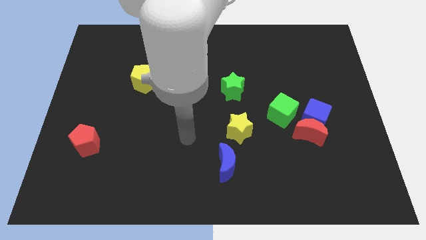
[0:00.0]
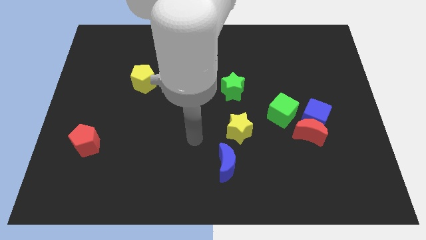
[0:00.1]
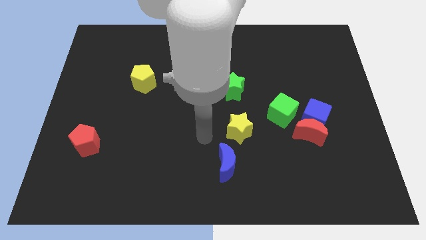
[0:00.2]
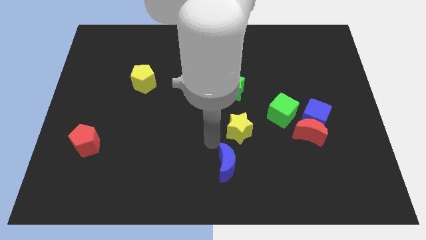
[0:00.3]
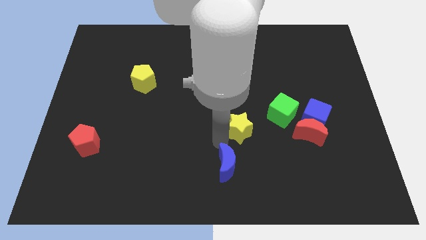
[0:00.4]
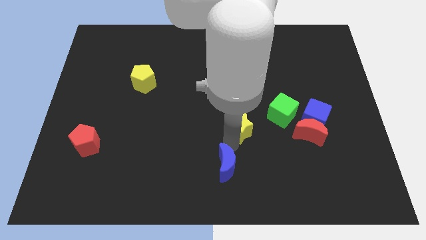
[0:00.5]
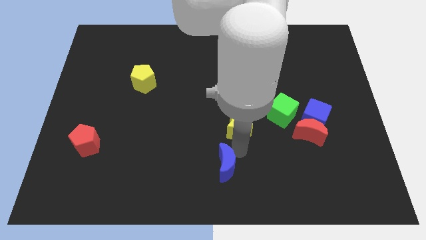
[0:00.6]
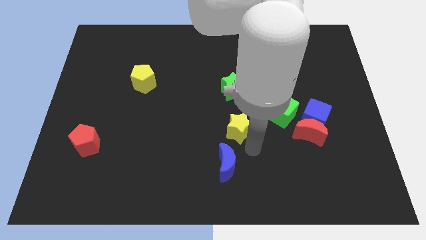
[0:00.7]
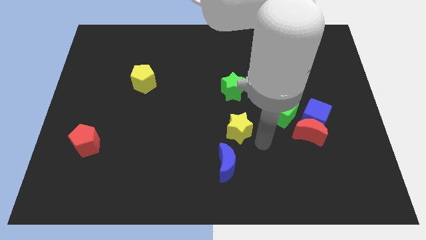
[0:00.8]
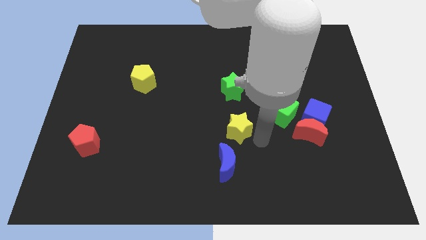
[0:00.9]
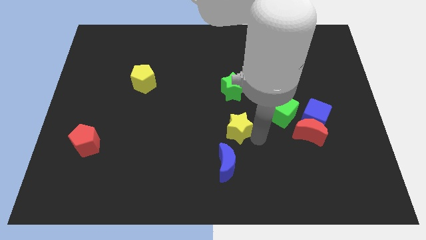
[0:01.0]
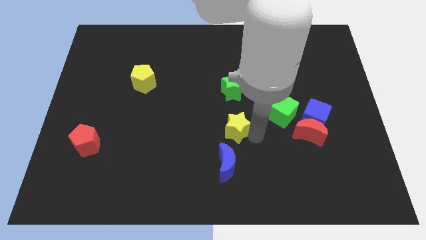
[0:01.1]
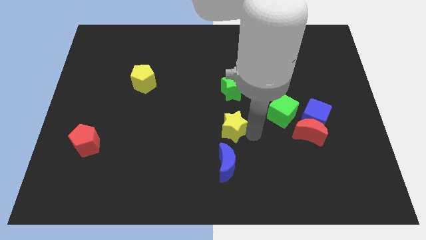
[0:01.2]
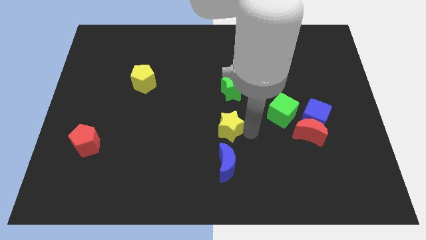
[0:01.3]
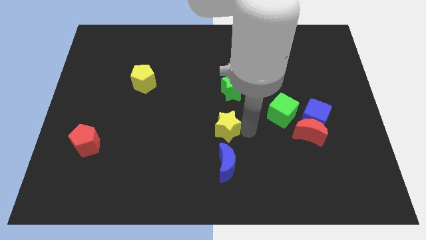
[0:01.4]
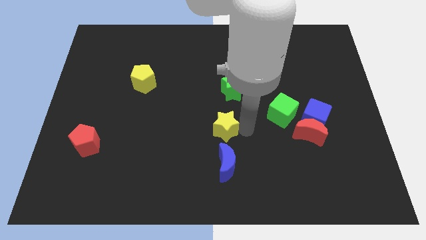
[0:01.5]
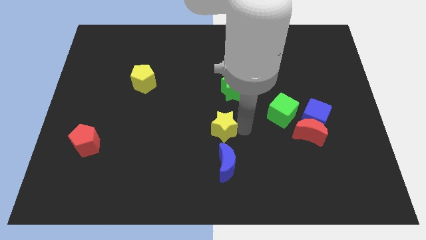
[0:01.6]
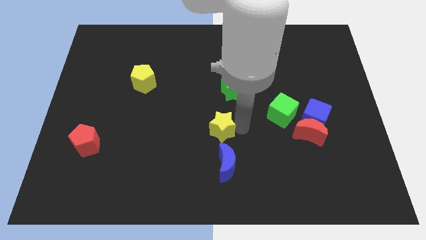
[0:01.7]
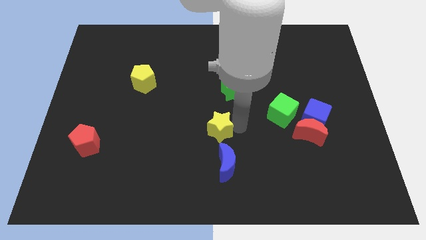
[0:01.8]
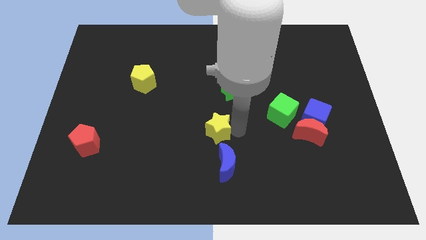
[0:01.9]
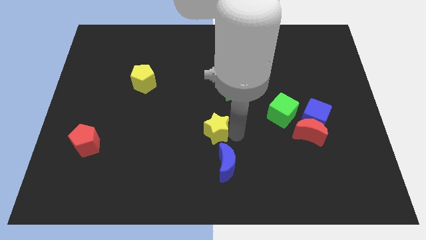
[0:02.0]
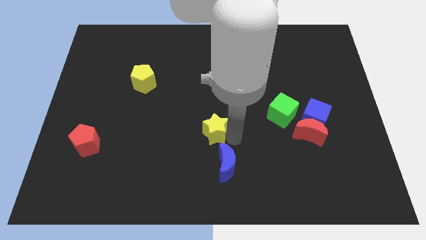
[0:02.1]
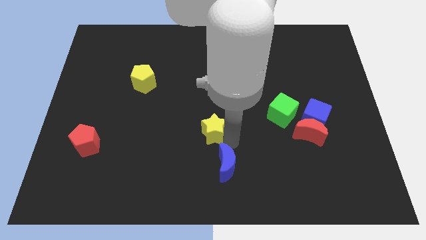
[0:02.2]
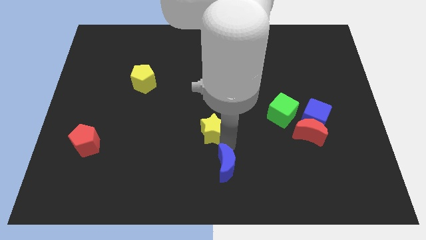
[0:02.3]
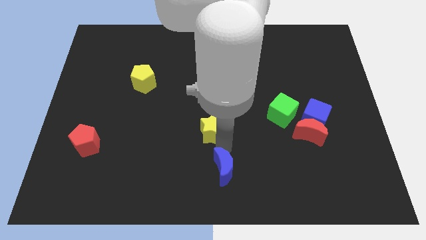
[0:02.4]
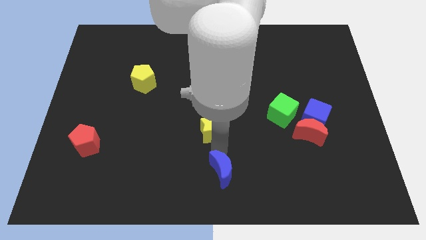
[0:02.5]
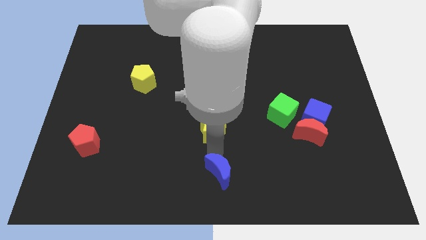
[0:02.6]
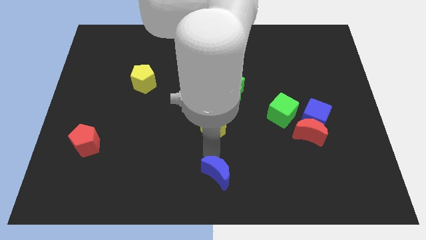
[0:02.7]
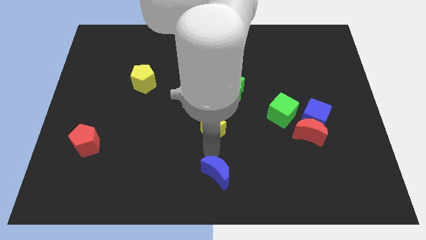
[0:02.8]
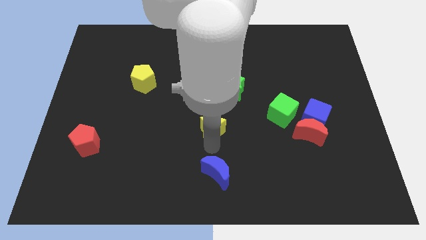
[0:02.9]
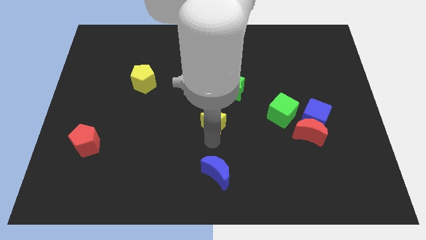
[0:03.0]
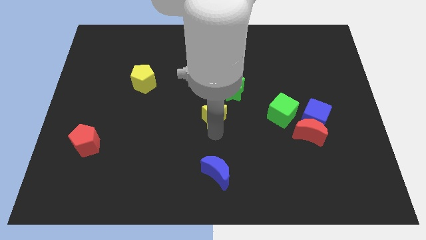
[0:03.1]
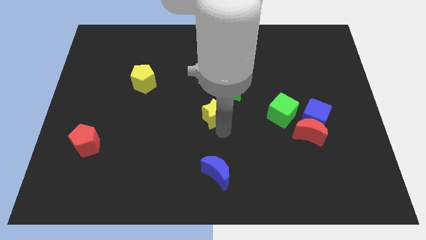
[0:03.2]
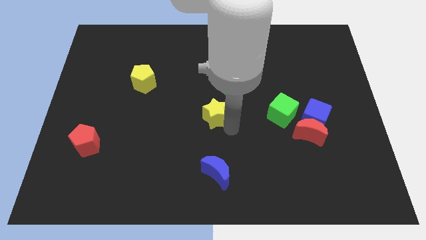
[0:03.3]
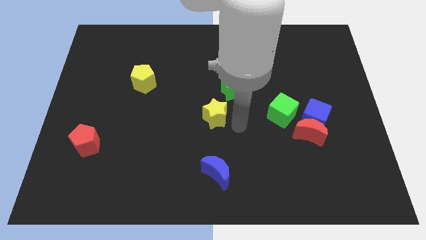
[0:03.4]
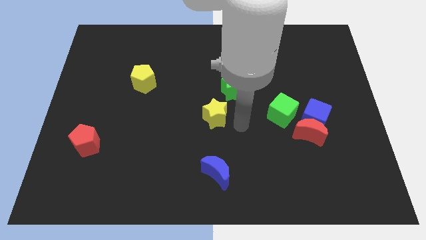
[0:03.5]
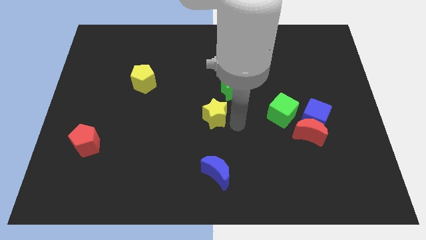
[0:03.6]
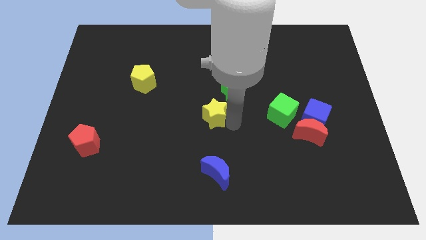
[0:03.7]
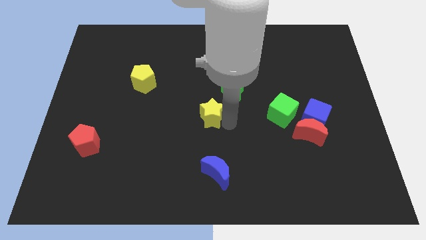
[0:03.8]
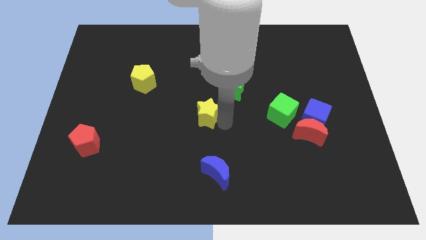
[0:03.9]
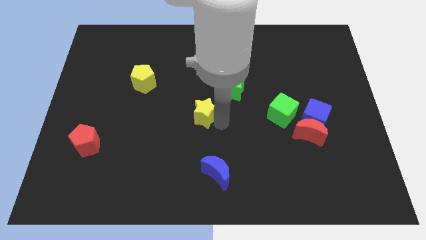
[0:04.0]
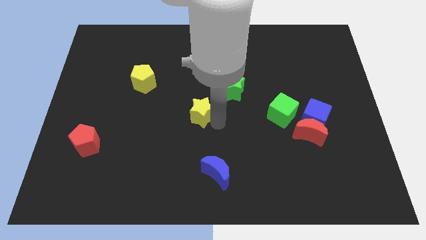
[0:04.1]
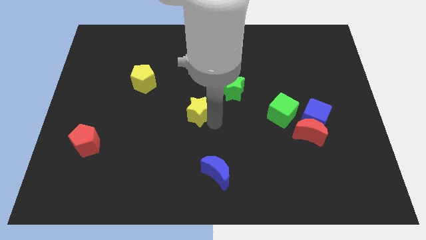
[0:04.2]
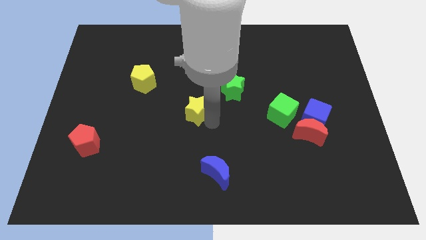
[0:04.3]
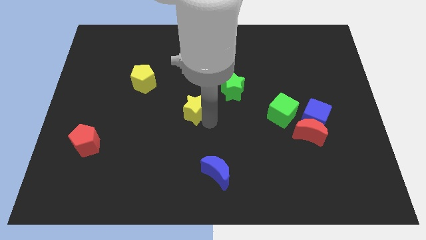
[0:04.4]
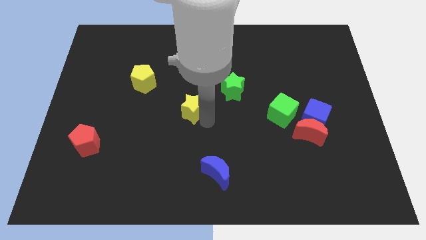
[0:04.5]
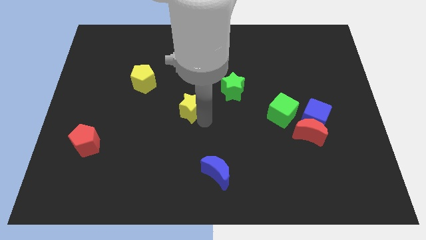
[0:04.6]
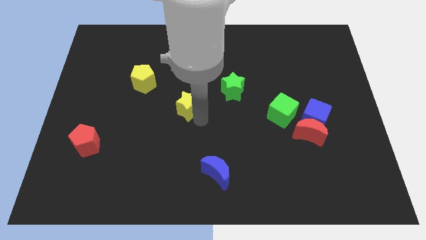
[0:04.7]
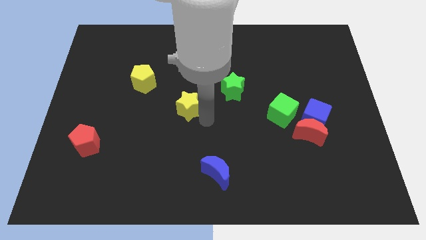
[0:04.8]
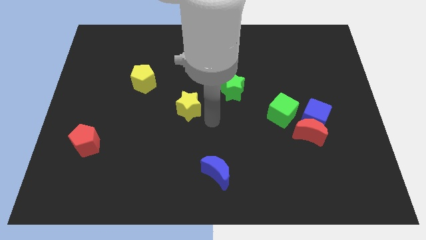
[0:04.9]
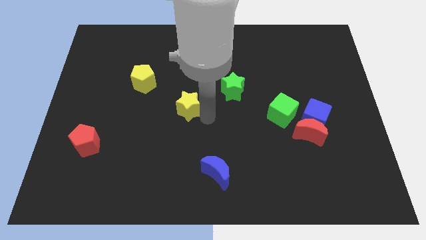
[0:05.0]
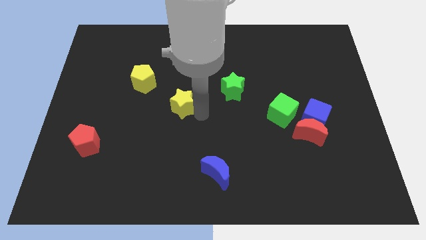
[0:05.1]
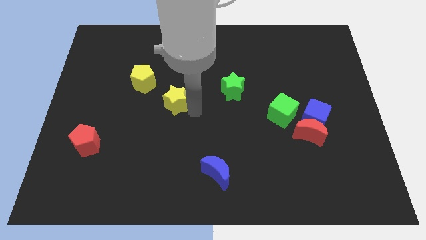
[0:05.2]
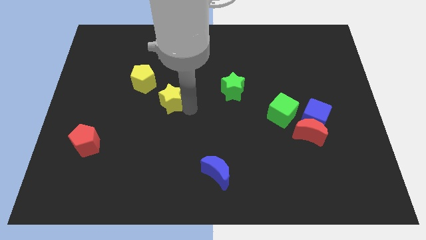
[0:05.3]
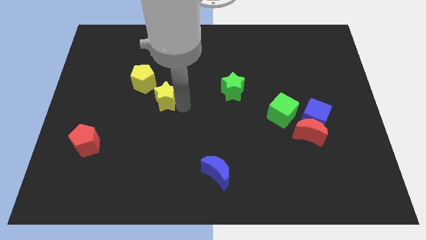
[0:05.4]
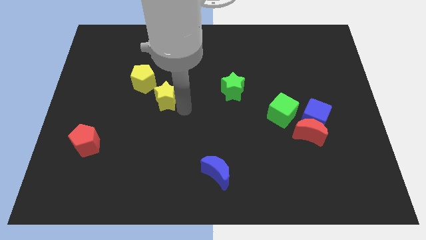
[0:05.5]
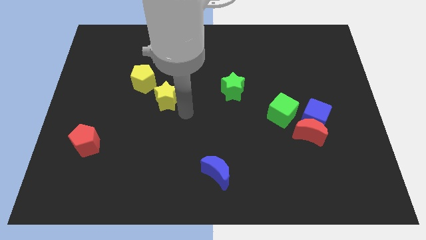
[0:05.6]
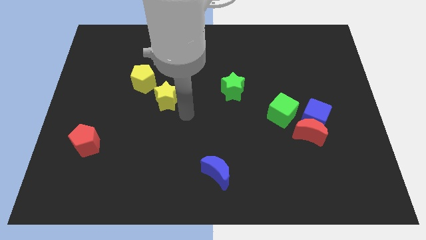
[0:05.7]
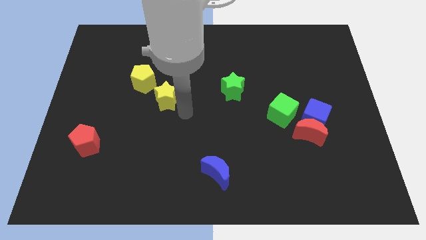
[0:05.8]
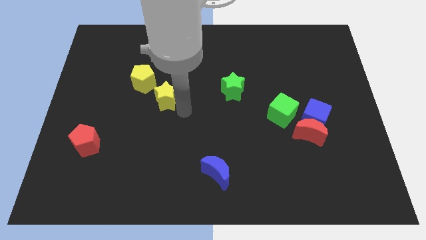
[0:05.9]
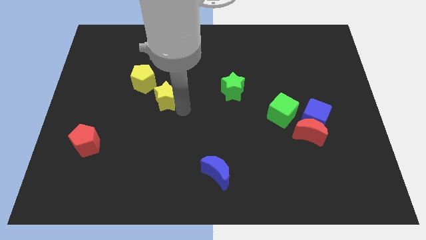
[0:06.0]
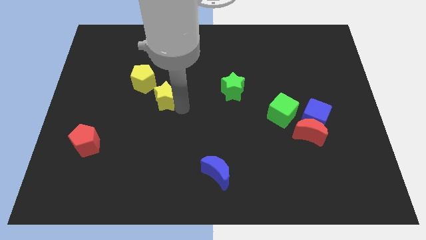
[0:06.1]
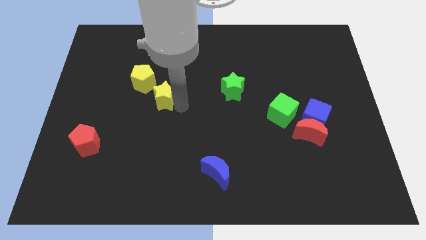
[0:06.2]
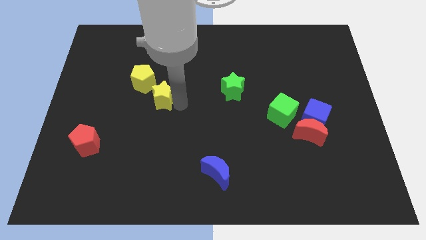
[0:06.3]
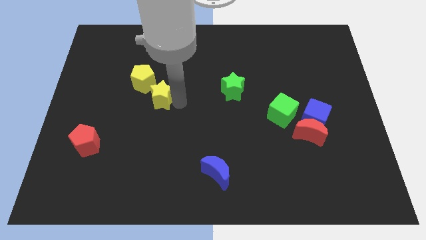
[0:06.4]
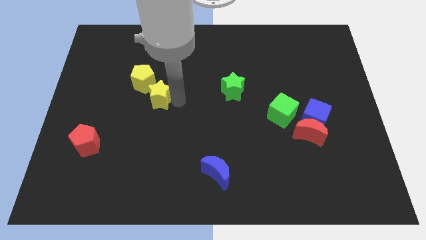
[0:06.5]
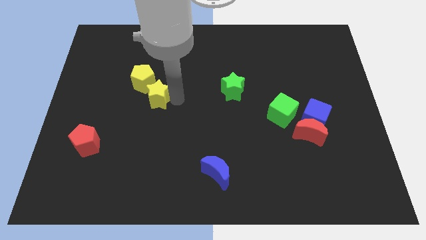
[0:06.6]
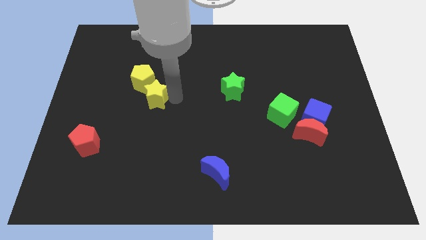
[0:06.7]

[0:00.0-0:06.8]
slide the yellow star to the yellow pentagon
